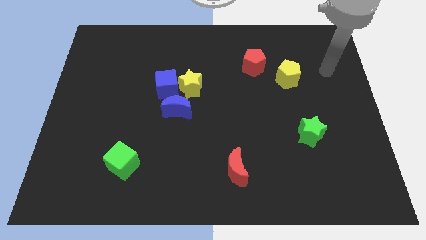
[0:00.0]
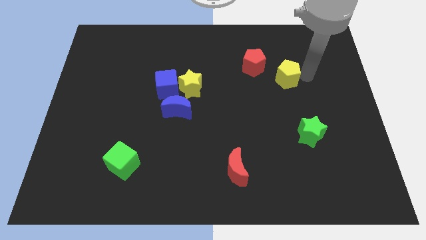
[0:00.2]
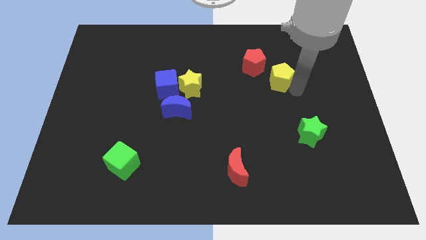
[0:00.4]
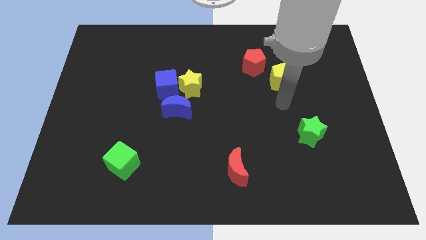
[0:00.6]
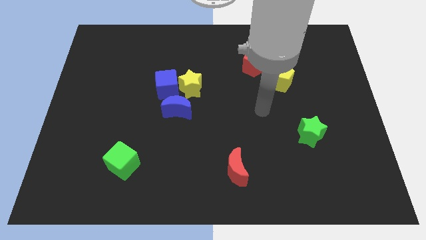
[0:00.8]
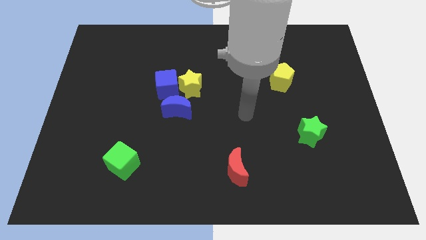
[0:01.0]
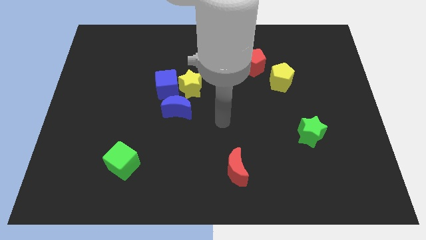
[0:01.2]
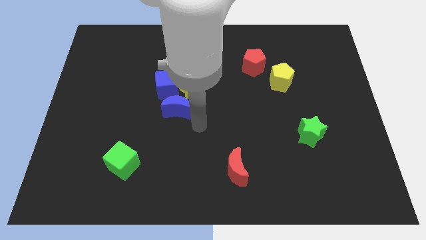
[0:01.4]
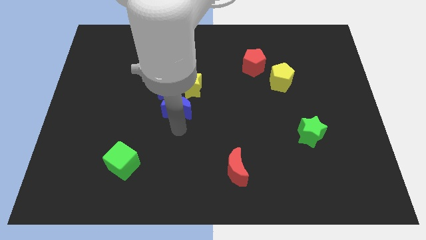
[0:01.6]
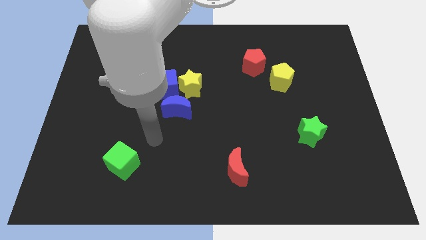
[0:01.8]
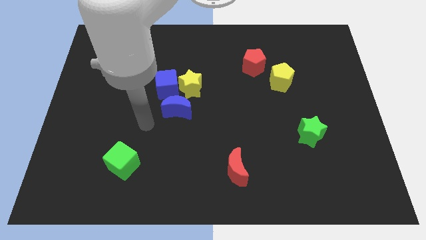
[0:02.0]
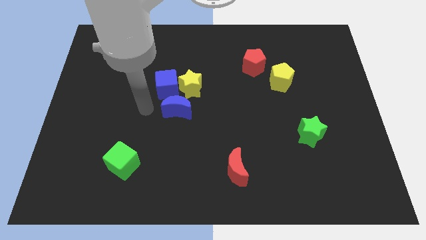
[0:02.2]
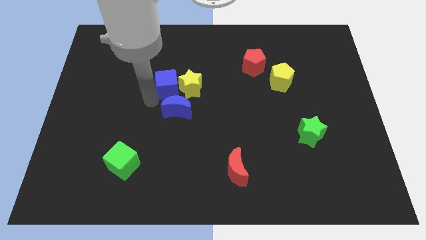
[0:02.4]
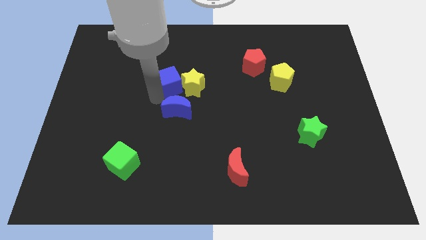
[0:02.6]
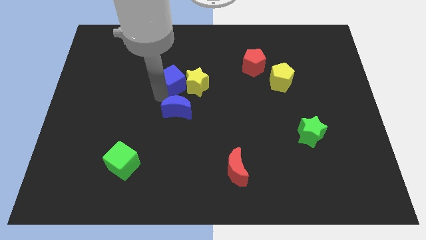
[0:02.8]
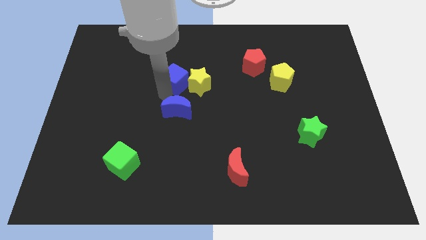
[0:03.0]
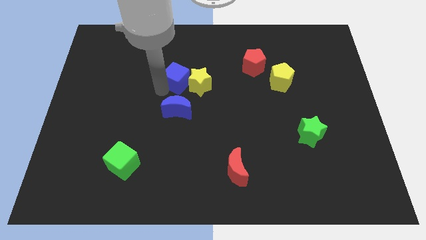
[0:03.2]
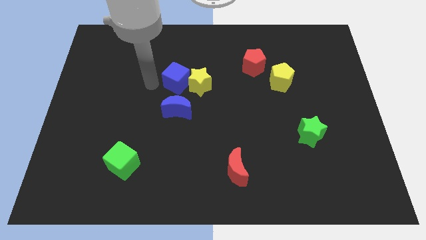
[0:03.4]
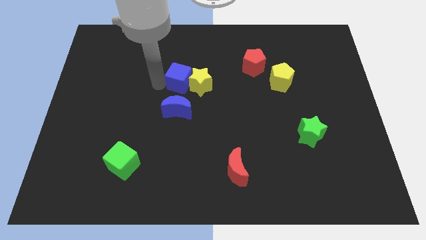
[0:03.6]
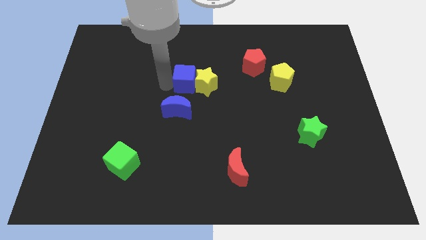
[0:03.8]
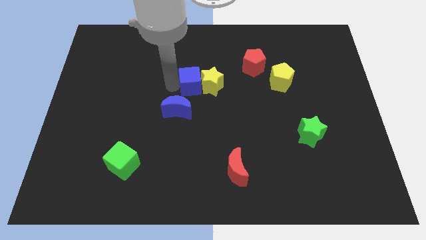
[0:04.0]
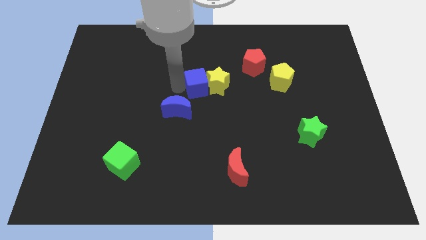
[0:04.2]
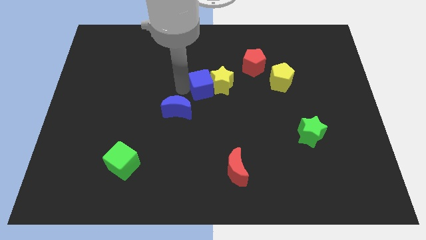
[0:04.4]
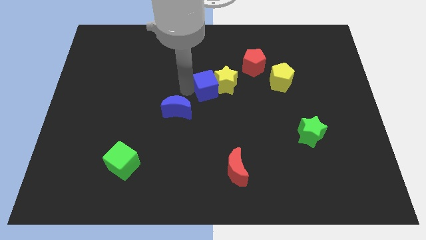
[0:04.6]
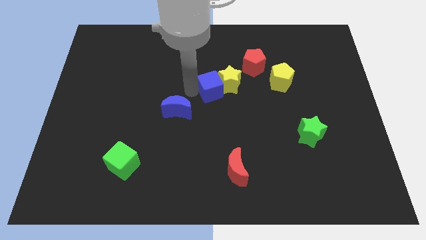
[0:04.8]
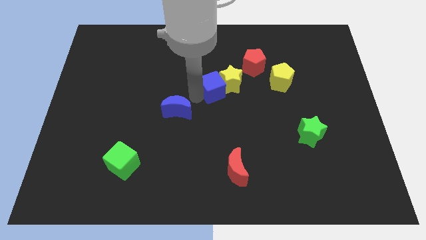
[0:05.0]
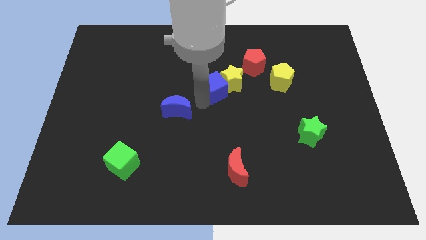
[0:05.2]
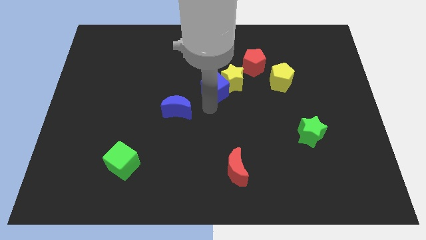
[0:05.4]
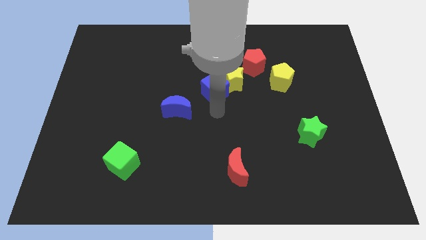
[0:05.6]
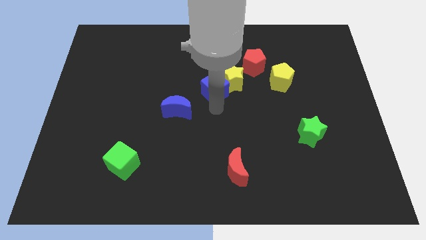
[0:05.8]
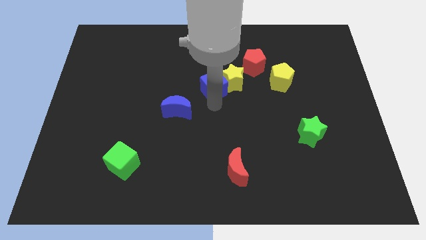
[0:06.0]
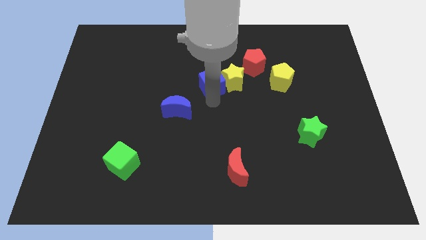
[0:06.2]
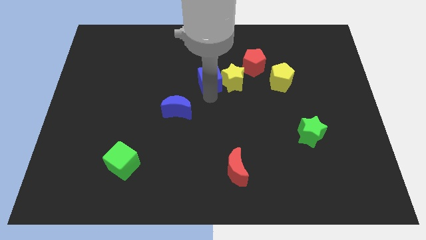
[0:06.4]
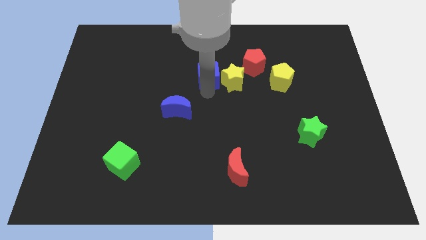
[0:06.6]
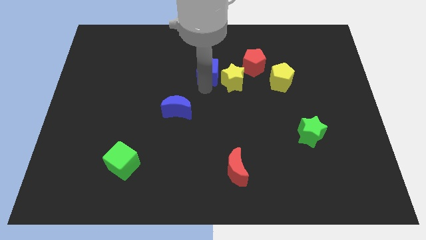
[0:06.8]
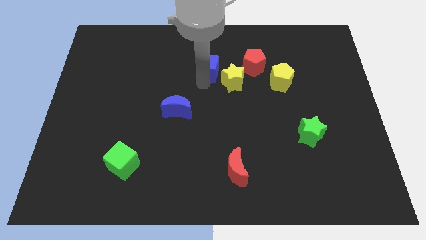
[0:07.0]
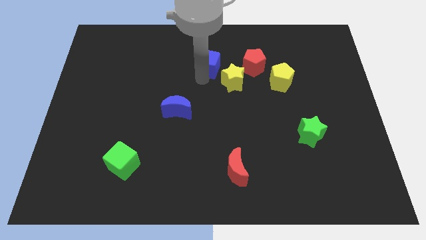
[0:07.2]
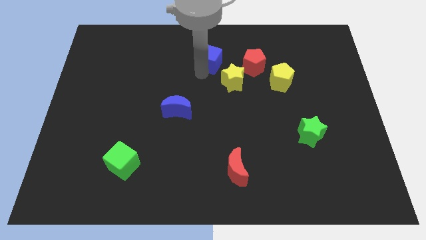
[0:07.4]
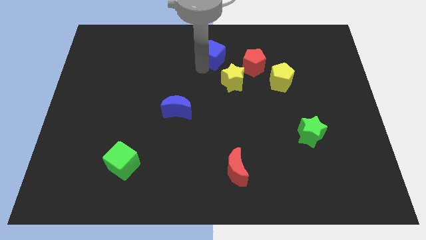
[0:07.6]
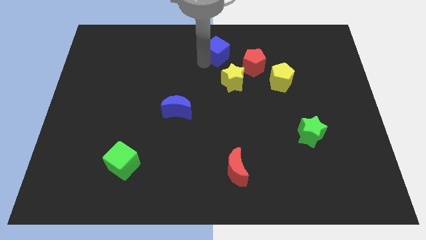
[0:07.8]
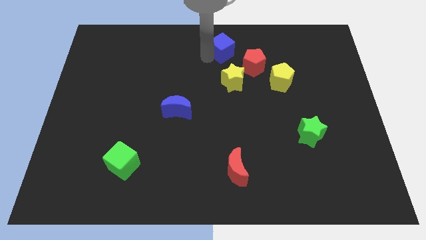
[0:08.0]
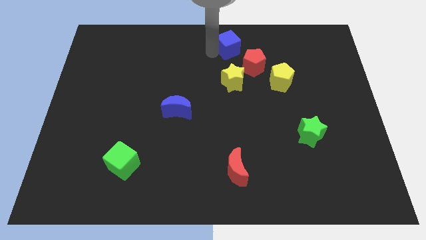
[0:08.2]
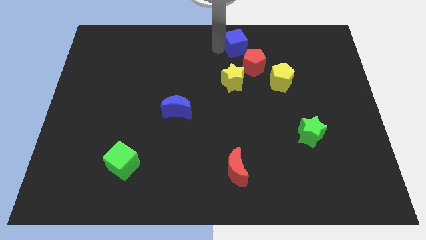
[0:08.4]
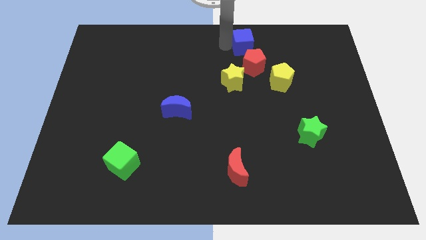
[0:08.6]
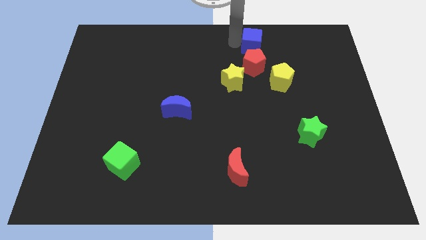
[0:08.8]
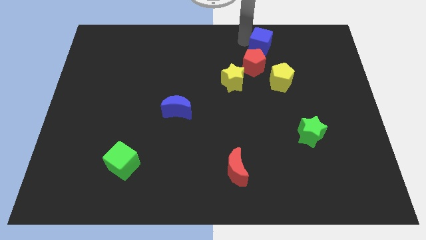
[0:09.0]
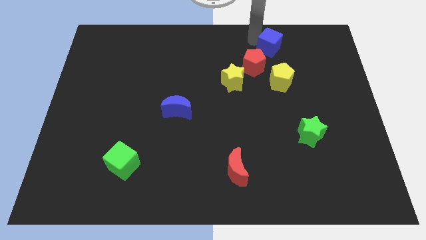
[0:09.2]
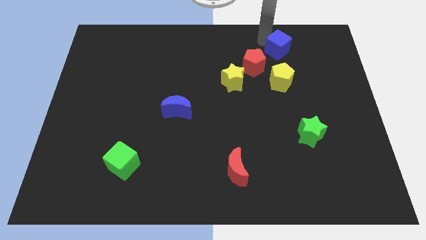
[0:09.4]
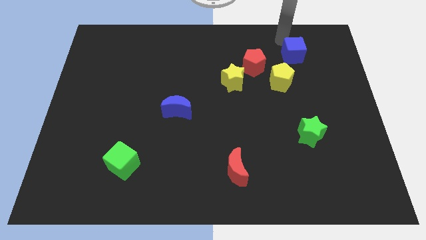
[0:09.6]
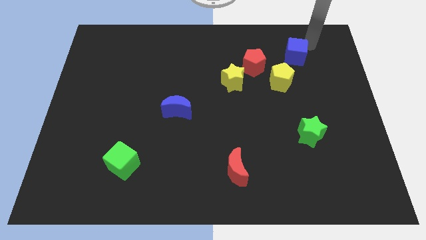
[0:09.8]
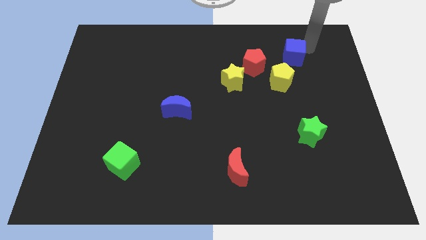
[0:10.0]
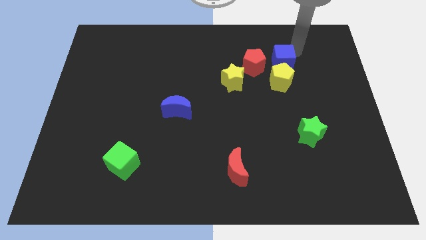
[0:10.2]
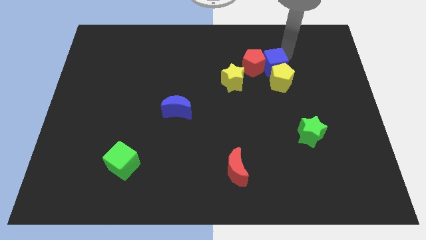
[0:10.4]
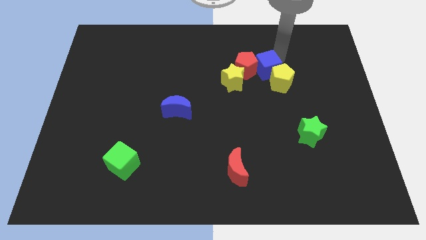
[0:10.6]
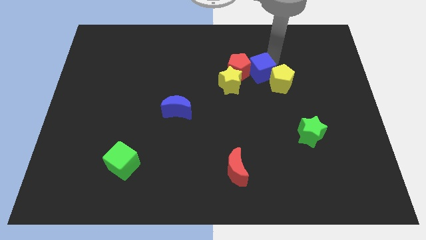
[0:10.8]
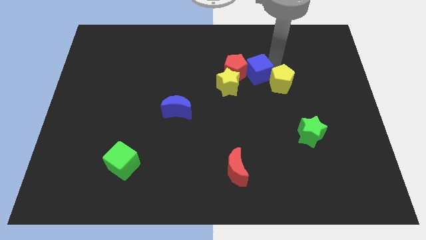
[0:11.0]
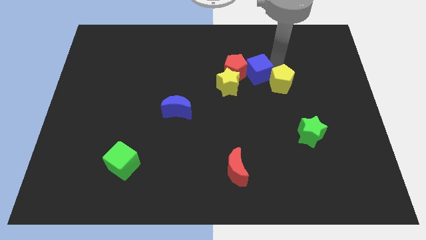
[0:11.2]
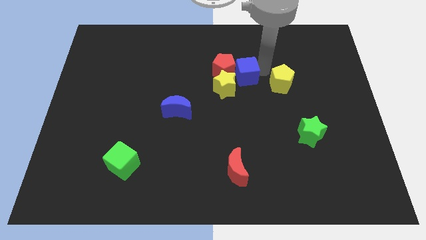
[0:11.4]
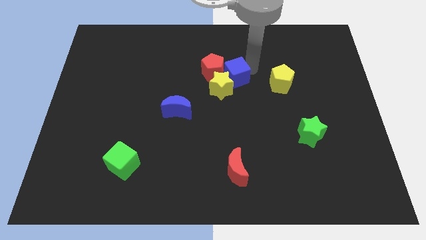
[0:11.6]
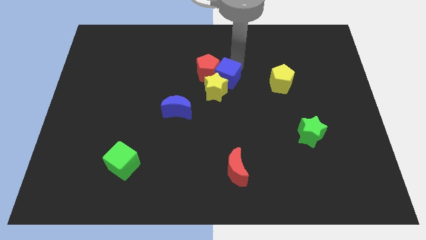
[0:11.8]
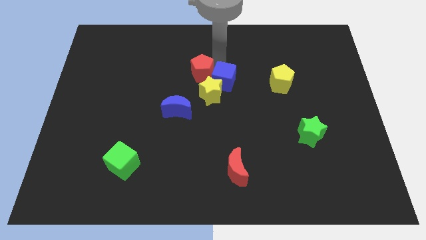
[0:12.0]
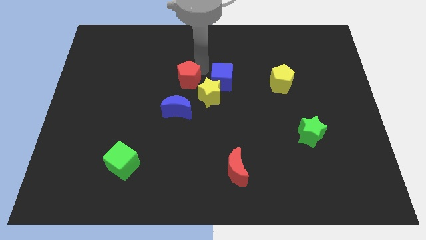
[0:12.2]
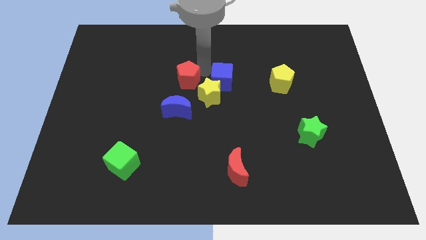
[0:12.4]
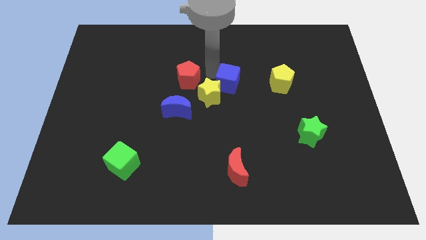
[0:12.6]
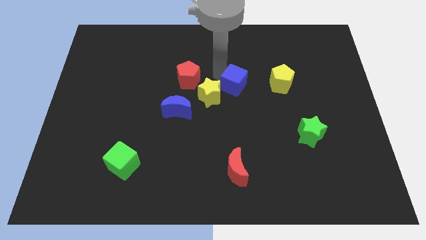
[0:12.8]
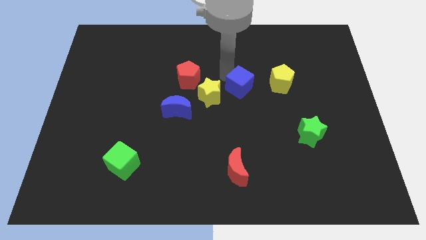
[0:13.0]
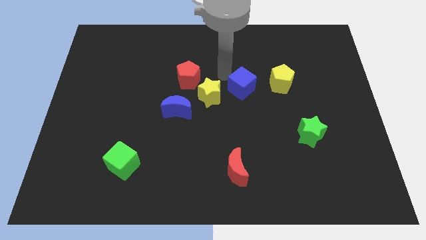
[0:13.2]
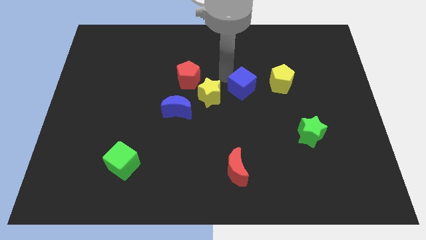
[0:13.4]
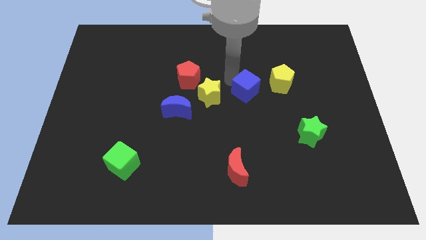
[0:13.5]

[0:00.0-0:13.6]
put the blue cube to the bottom left side of the yellow pentagon

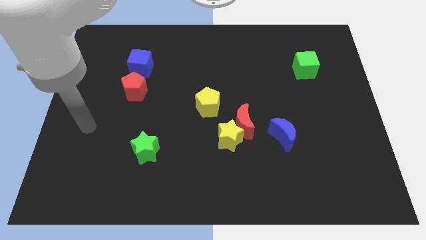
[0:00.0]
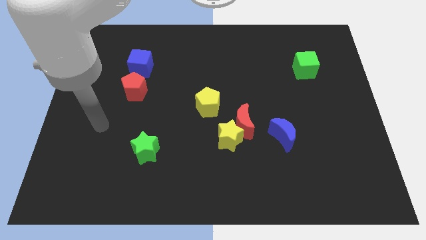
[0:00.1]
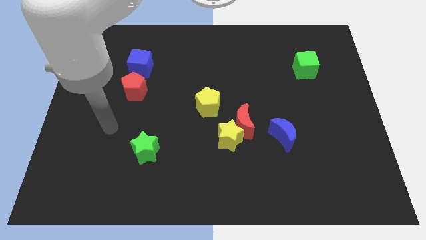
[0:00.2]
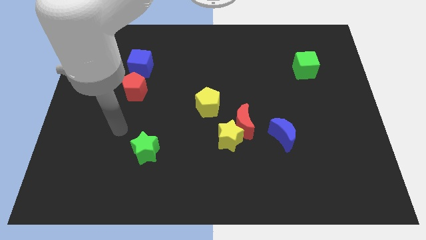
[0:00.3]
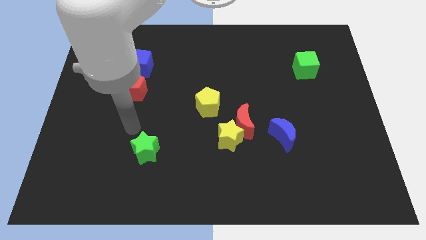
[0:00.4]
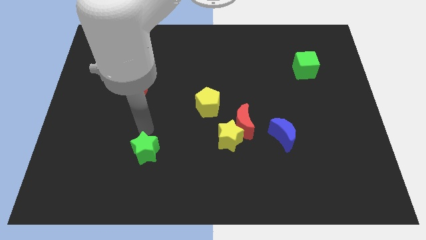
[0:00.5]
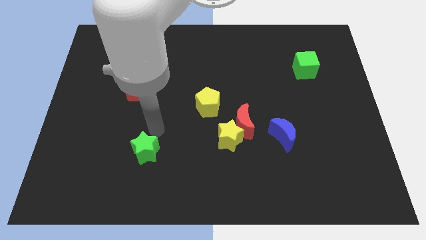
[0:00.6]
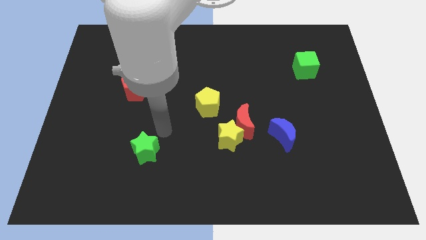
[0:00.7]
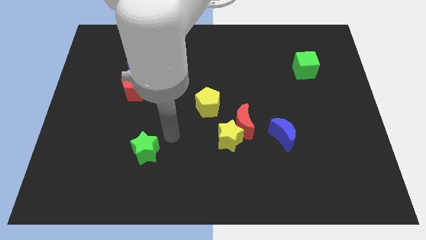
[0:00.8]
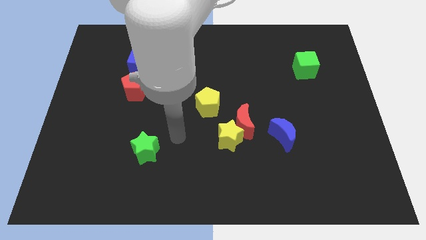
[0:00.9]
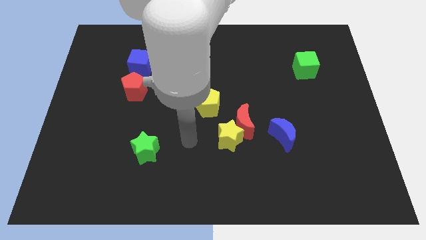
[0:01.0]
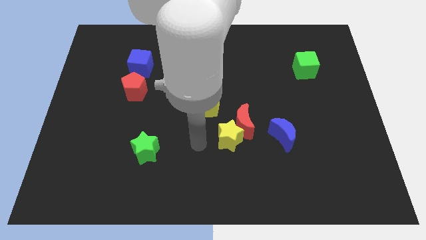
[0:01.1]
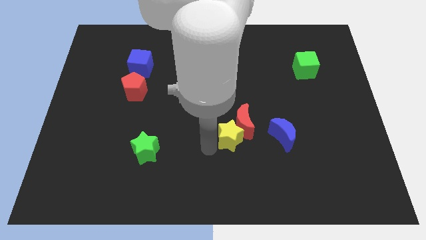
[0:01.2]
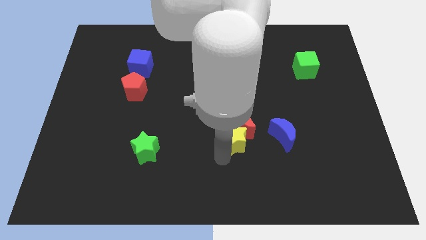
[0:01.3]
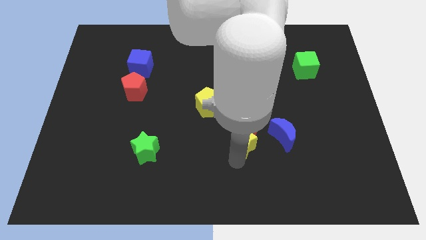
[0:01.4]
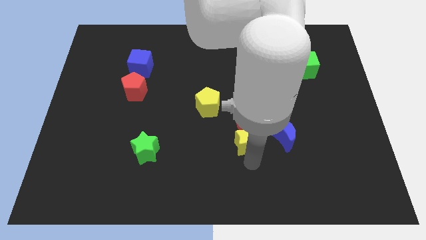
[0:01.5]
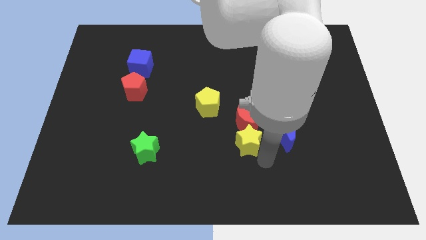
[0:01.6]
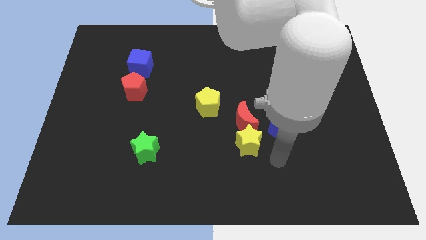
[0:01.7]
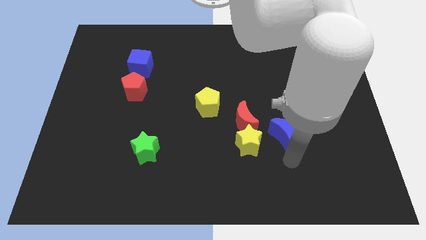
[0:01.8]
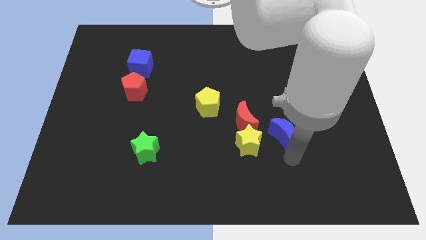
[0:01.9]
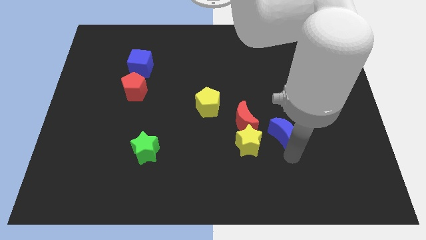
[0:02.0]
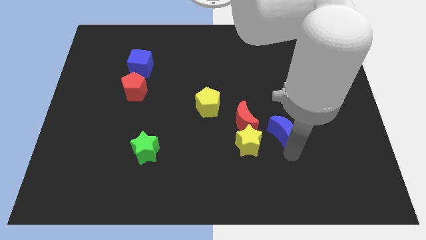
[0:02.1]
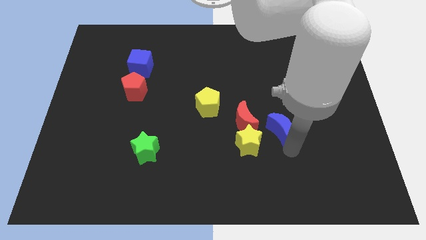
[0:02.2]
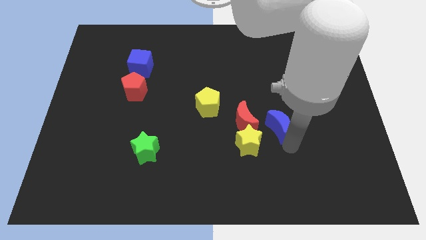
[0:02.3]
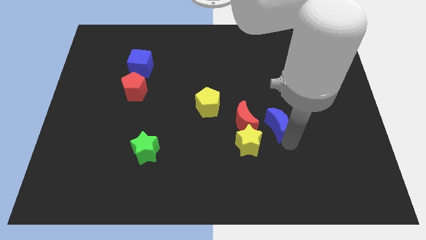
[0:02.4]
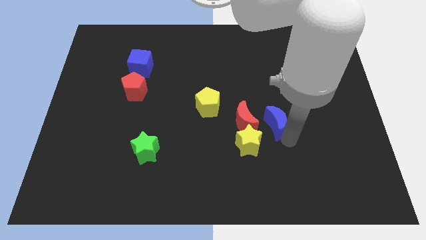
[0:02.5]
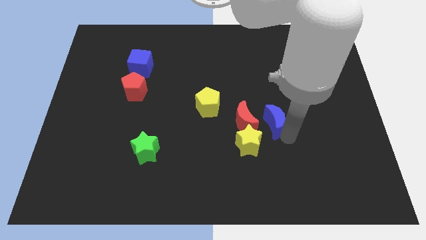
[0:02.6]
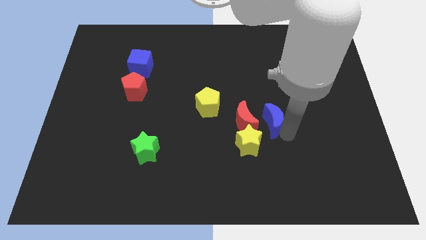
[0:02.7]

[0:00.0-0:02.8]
push the blue moon to the top right of the red moon
